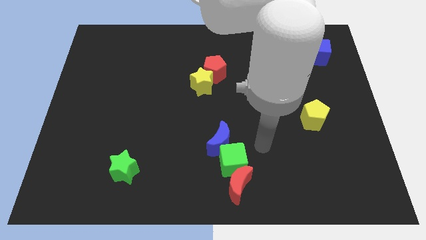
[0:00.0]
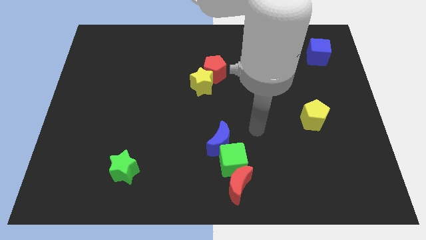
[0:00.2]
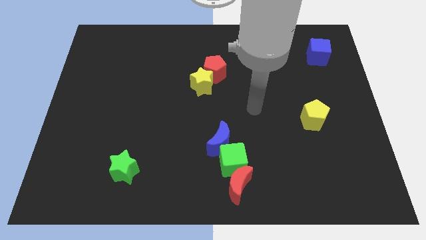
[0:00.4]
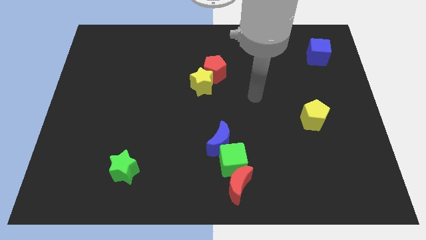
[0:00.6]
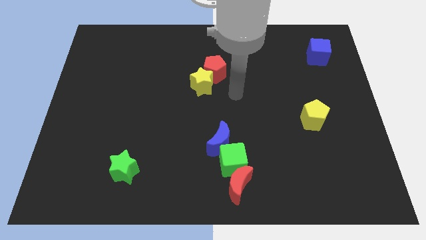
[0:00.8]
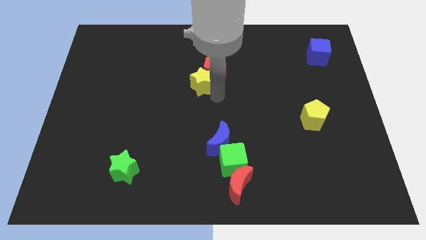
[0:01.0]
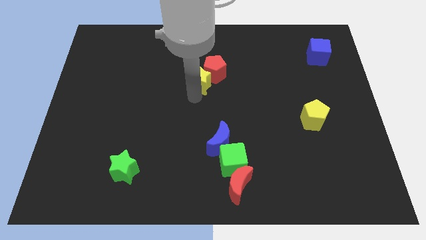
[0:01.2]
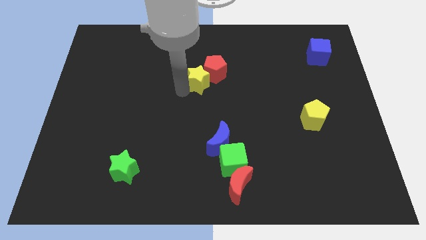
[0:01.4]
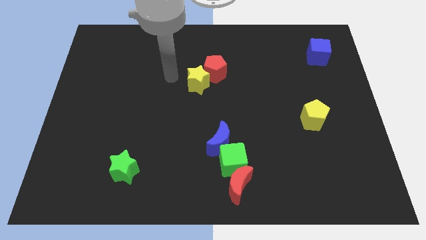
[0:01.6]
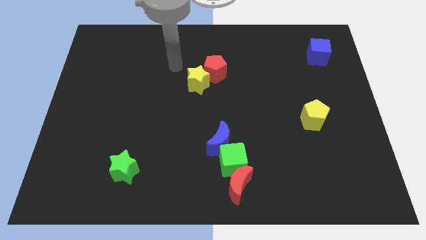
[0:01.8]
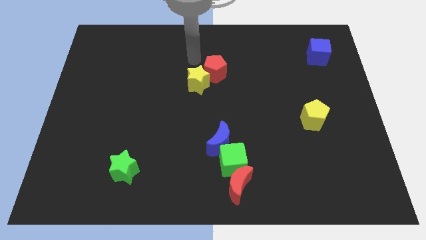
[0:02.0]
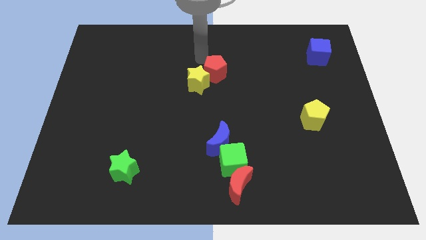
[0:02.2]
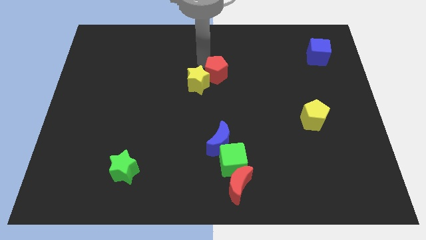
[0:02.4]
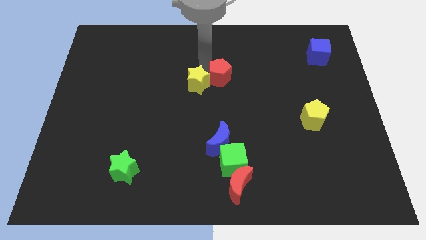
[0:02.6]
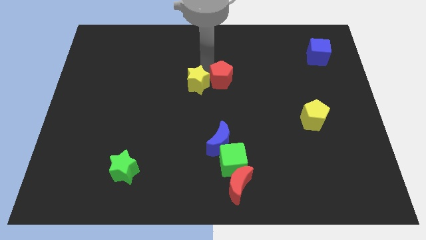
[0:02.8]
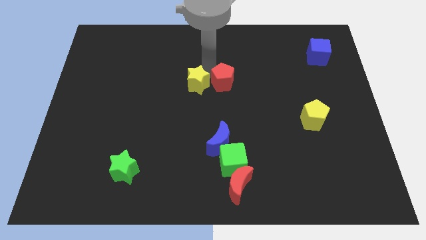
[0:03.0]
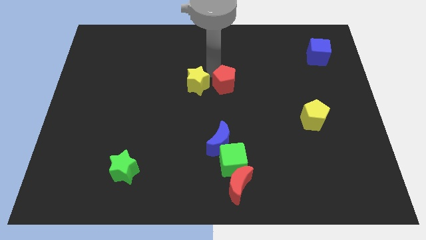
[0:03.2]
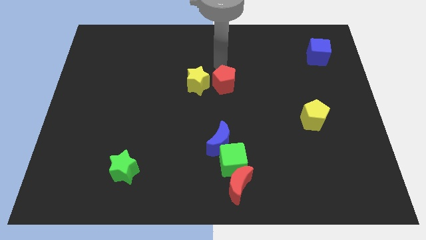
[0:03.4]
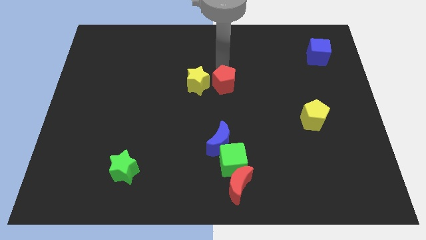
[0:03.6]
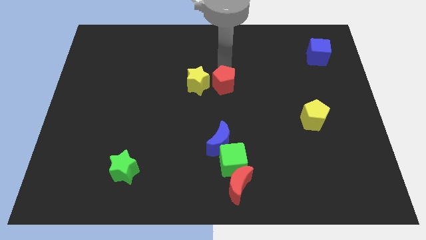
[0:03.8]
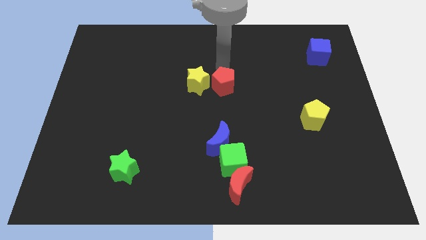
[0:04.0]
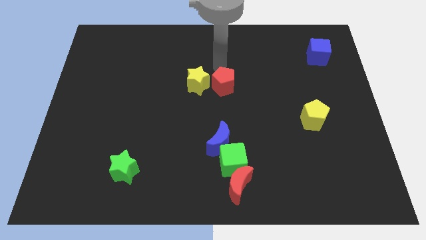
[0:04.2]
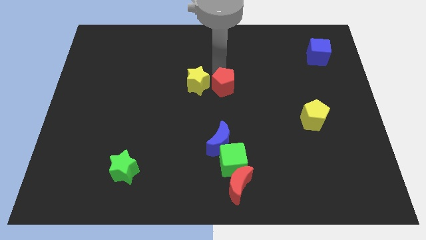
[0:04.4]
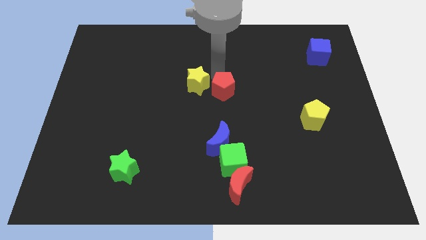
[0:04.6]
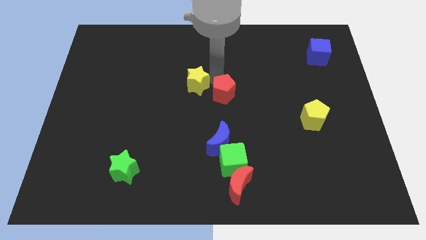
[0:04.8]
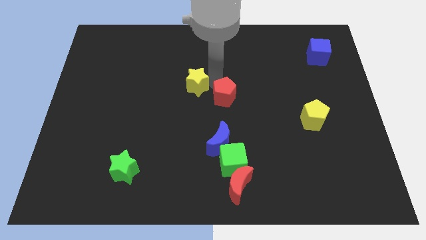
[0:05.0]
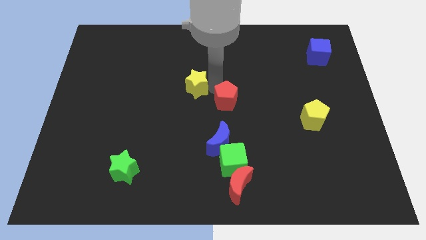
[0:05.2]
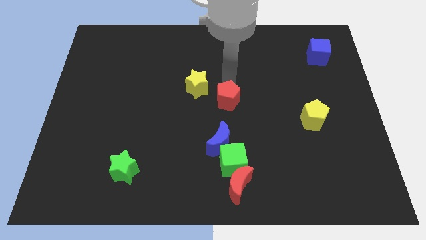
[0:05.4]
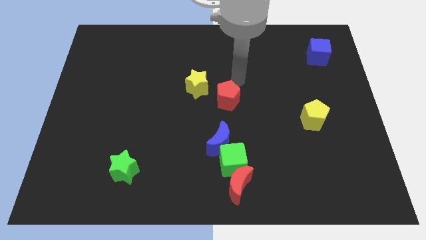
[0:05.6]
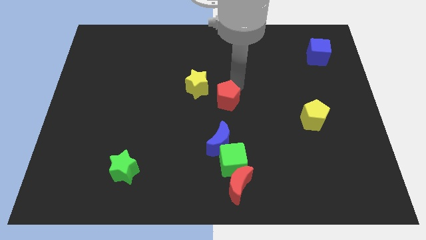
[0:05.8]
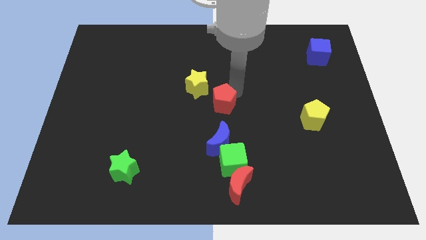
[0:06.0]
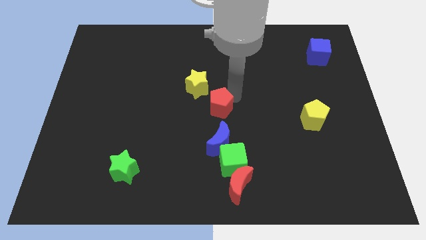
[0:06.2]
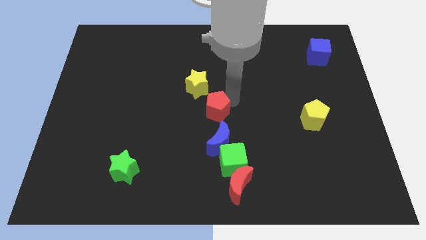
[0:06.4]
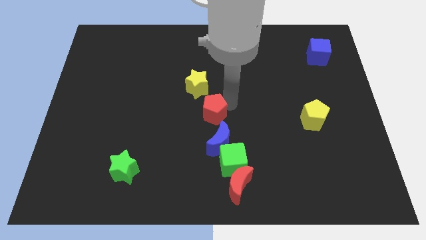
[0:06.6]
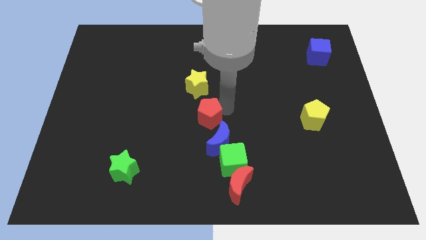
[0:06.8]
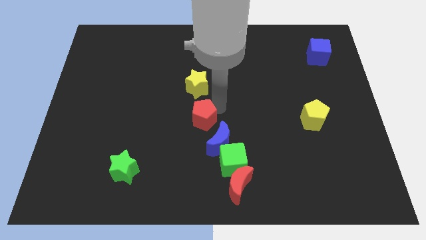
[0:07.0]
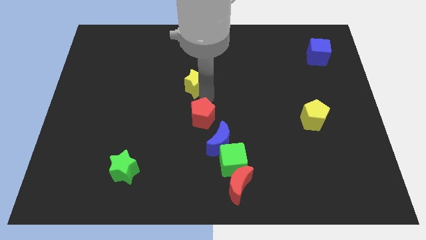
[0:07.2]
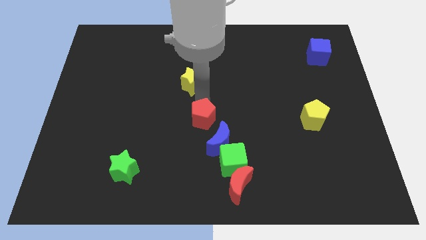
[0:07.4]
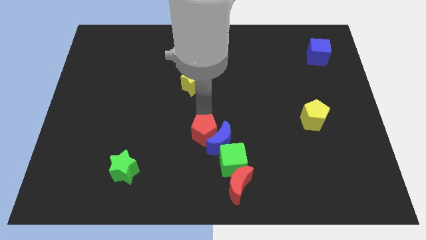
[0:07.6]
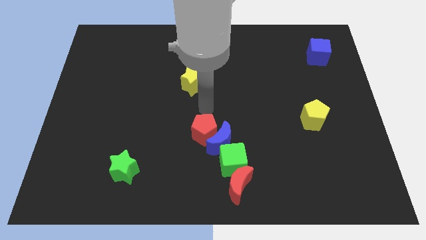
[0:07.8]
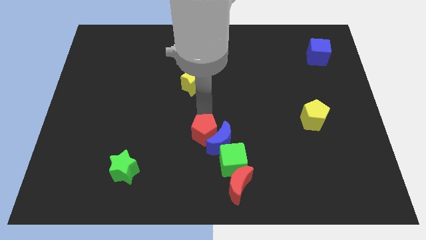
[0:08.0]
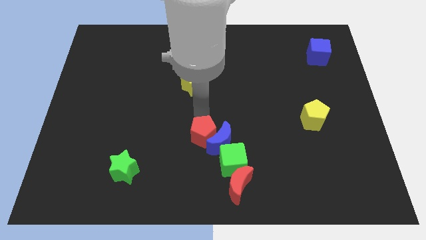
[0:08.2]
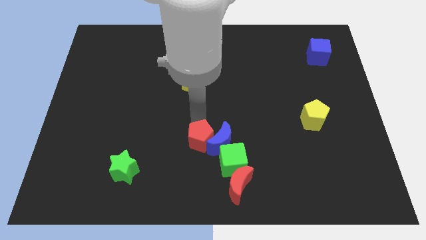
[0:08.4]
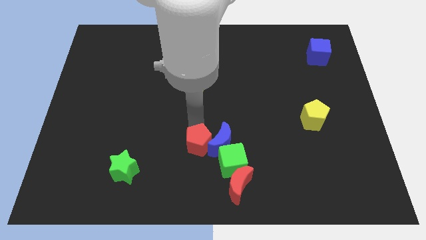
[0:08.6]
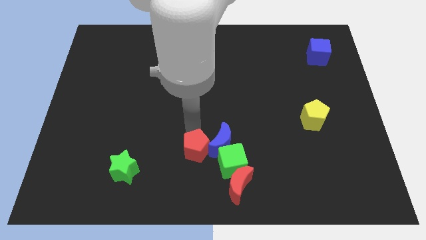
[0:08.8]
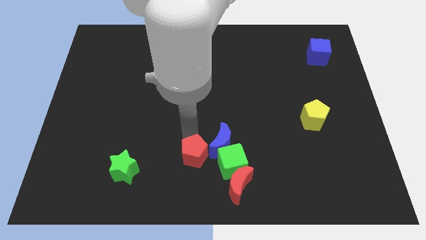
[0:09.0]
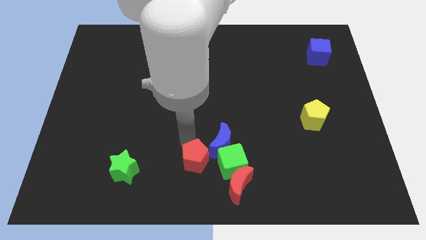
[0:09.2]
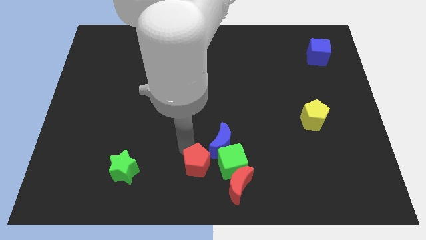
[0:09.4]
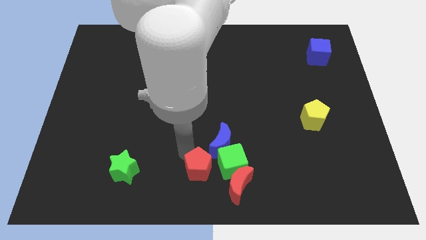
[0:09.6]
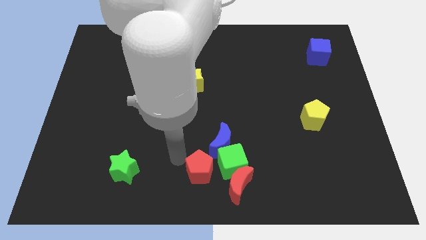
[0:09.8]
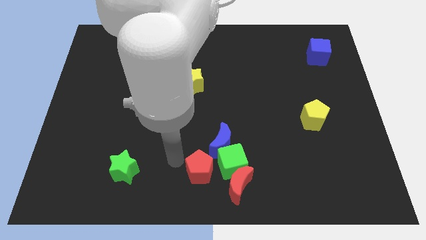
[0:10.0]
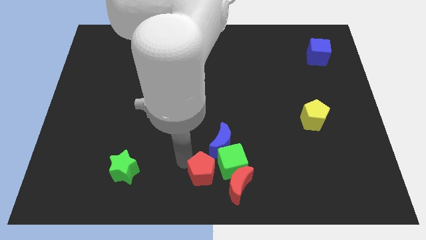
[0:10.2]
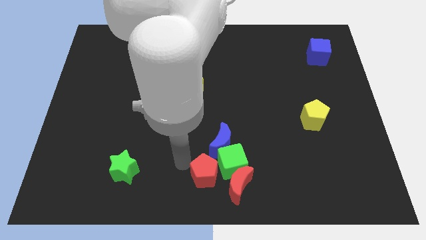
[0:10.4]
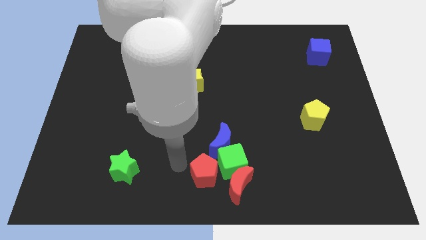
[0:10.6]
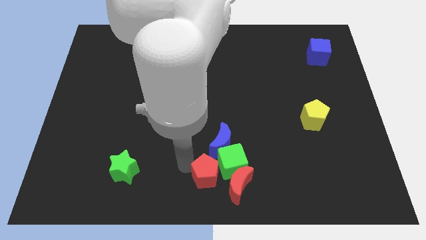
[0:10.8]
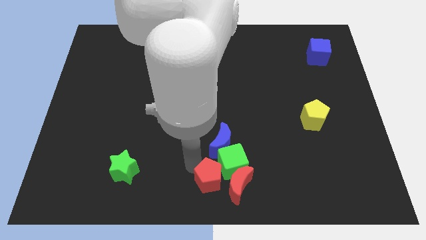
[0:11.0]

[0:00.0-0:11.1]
slide the red pentagon close to the red moon

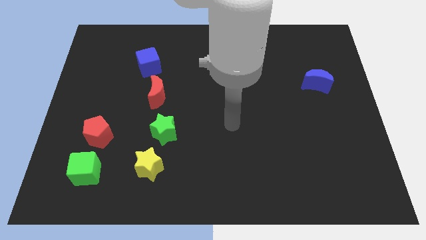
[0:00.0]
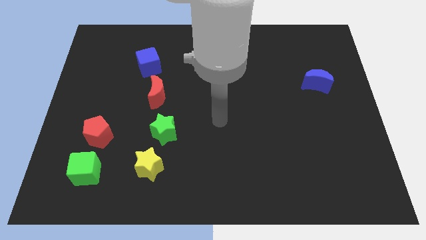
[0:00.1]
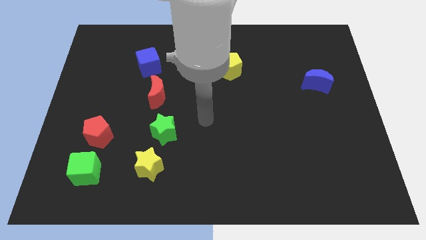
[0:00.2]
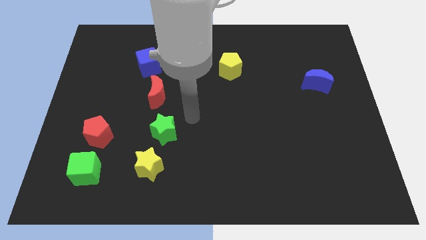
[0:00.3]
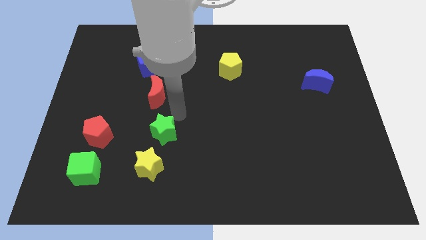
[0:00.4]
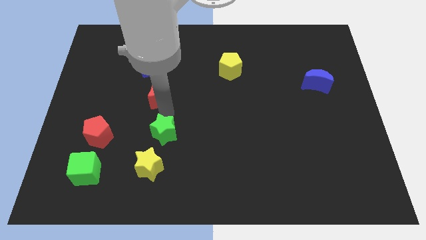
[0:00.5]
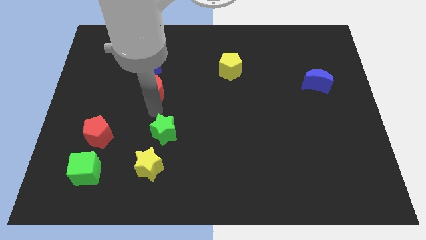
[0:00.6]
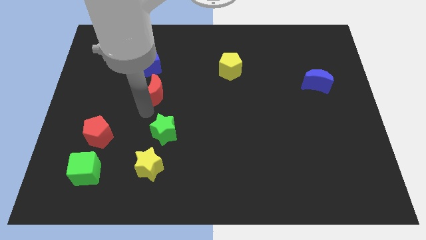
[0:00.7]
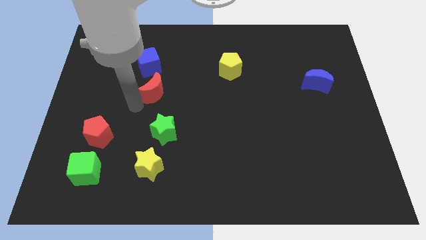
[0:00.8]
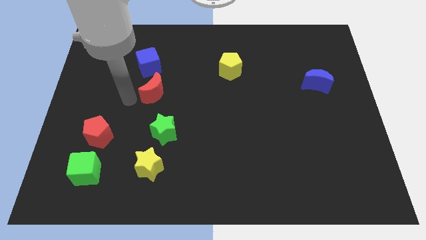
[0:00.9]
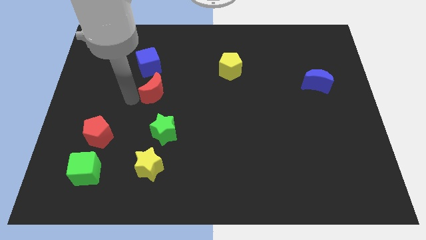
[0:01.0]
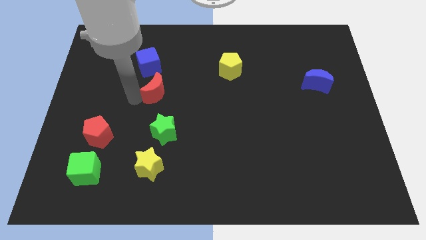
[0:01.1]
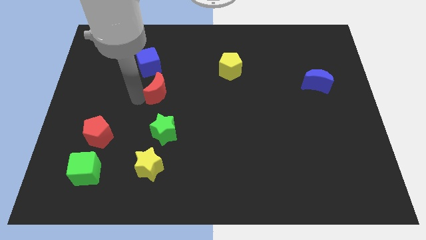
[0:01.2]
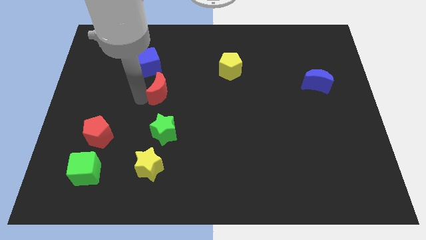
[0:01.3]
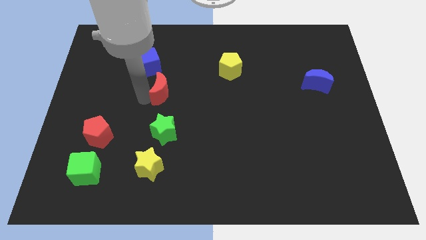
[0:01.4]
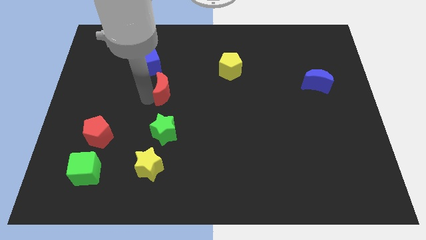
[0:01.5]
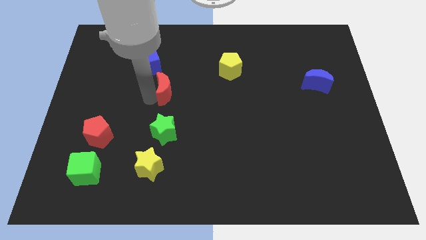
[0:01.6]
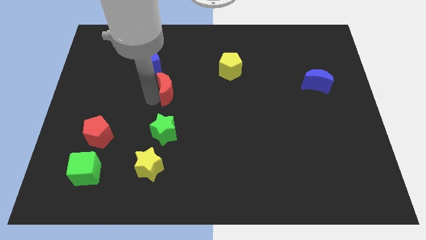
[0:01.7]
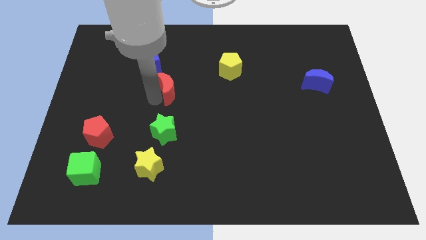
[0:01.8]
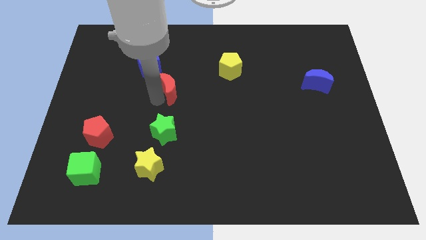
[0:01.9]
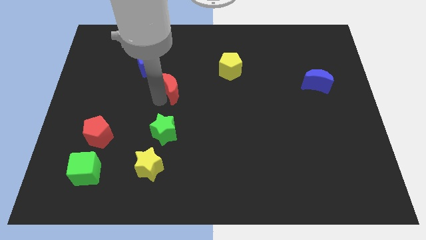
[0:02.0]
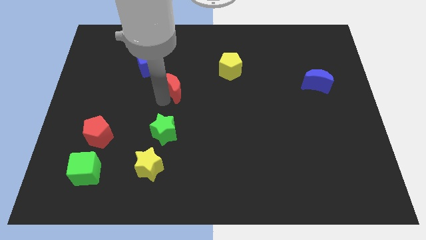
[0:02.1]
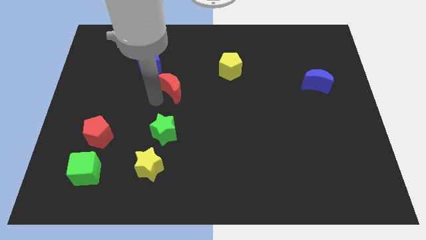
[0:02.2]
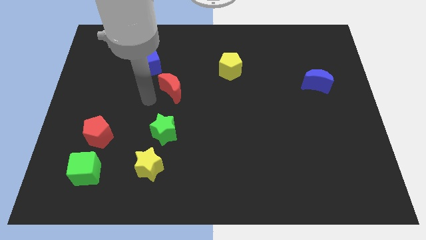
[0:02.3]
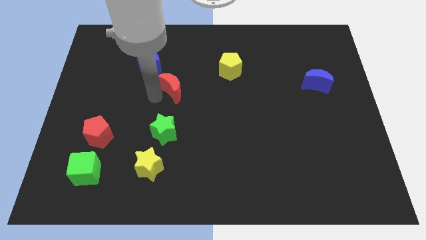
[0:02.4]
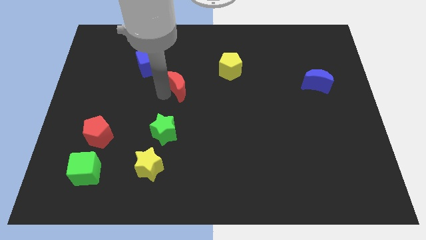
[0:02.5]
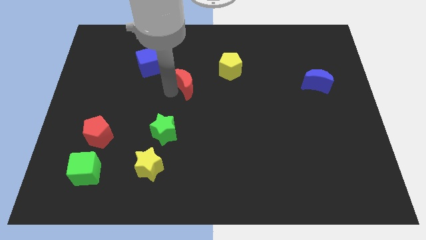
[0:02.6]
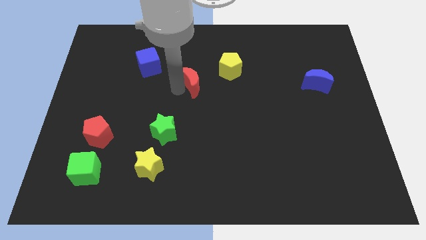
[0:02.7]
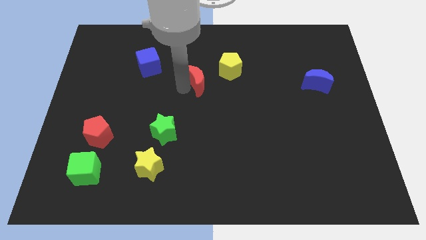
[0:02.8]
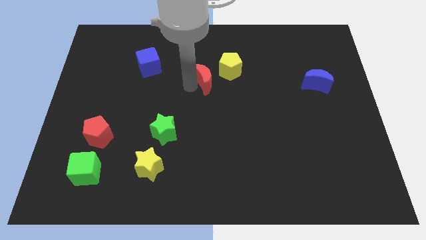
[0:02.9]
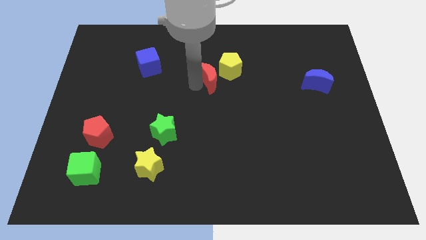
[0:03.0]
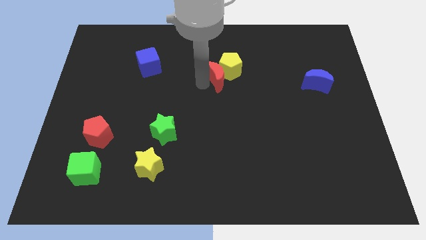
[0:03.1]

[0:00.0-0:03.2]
slide the red moon towards the yellow pentagon
